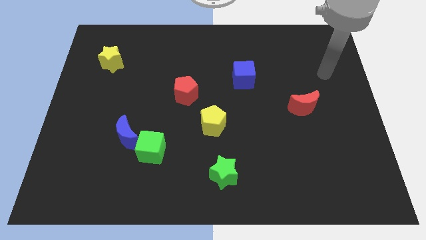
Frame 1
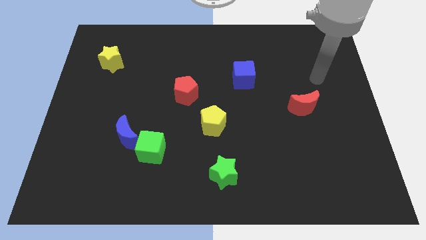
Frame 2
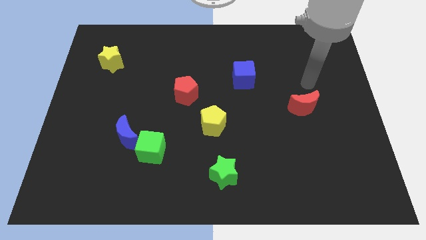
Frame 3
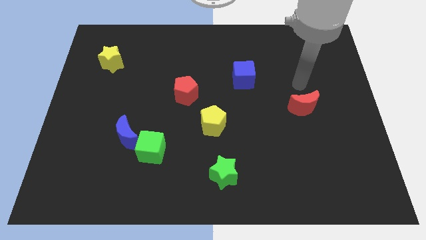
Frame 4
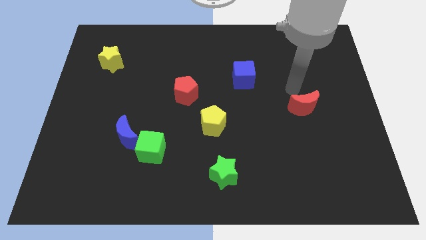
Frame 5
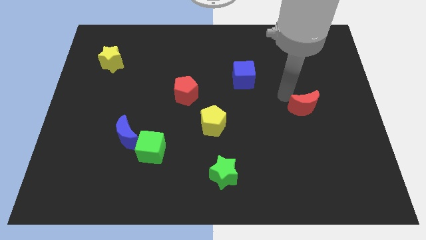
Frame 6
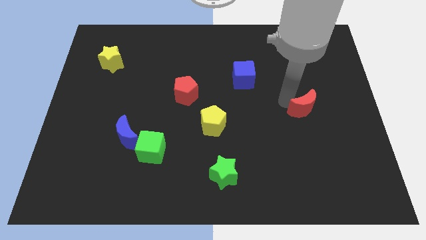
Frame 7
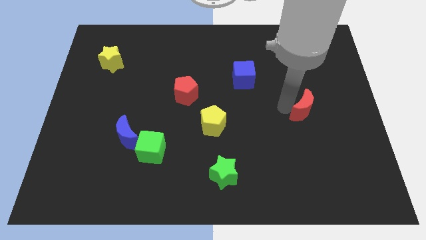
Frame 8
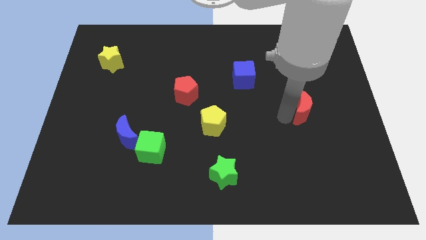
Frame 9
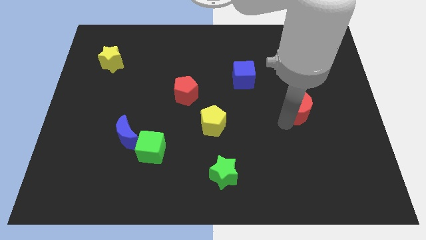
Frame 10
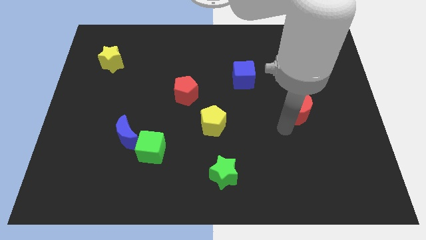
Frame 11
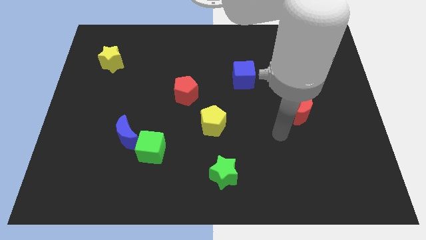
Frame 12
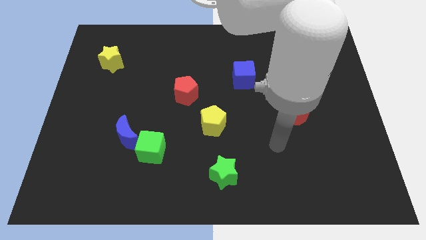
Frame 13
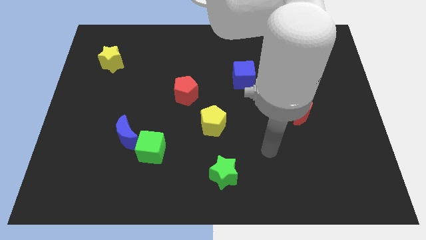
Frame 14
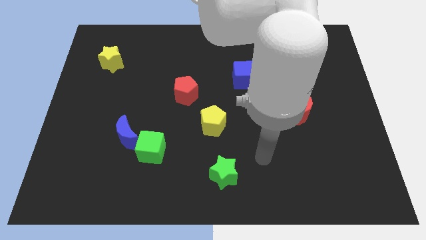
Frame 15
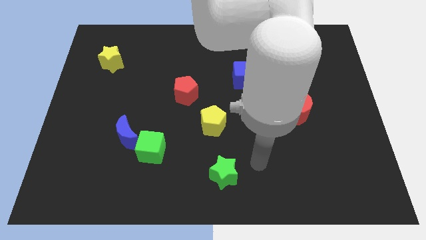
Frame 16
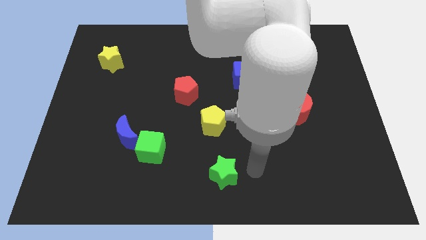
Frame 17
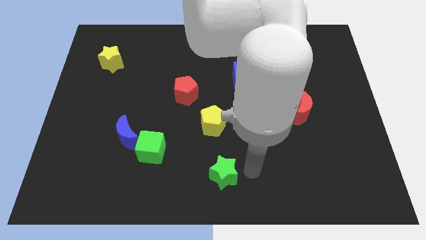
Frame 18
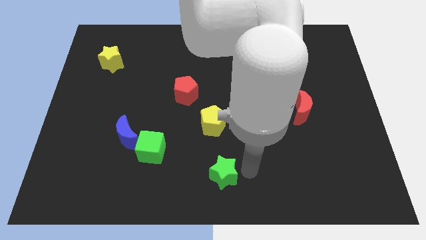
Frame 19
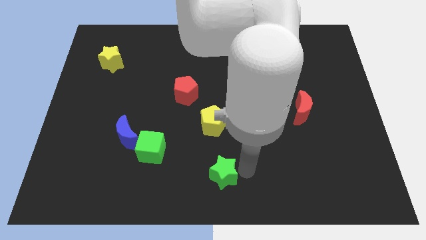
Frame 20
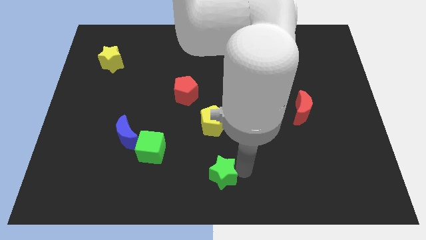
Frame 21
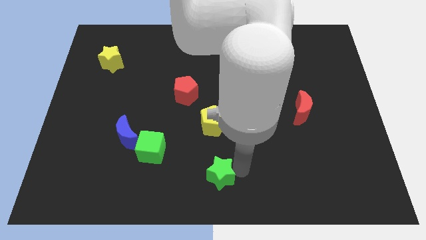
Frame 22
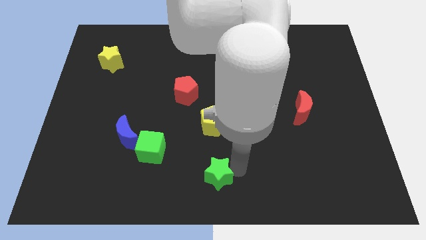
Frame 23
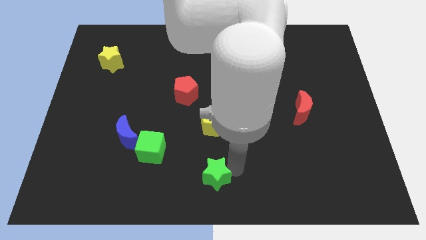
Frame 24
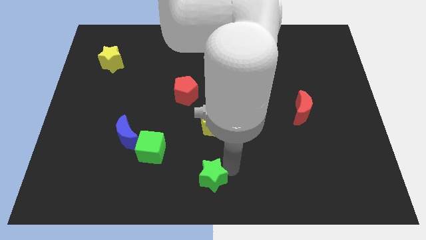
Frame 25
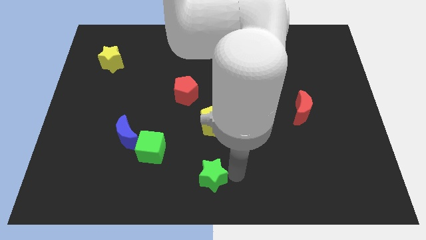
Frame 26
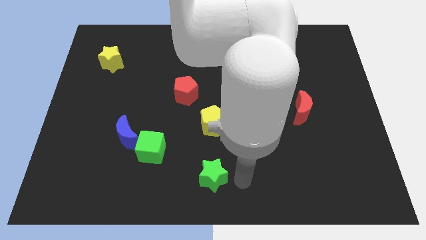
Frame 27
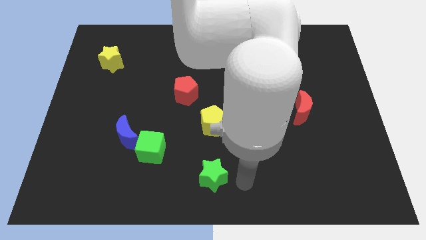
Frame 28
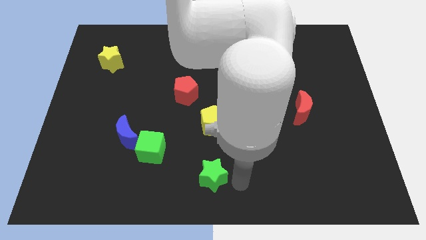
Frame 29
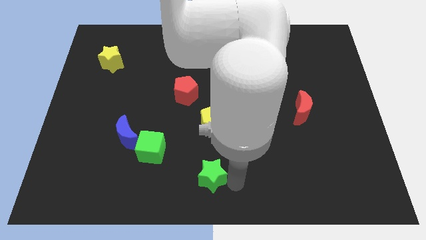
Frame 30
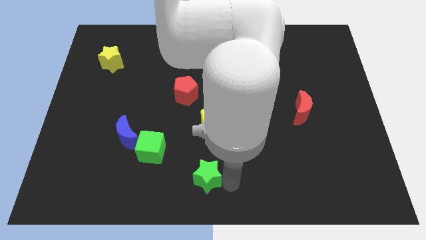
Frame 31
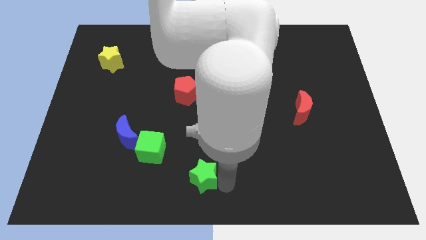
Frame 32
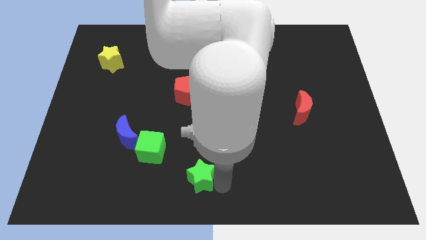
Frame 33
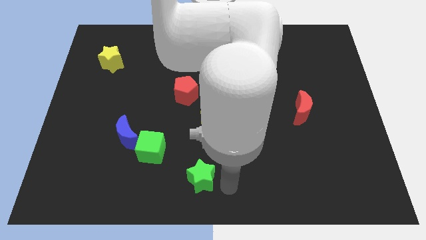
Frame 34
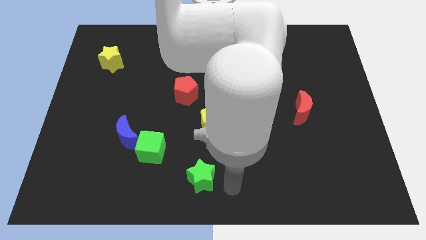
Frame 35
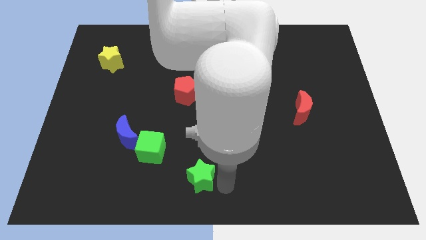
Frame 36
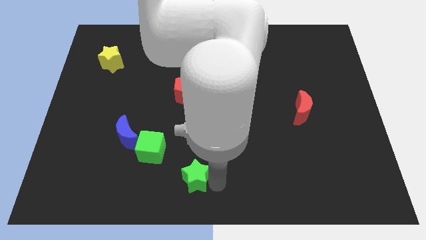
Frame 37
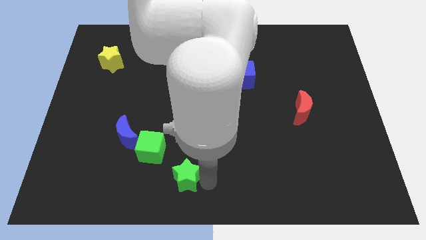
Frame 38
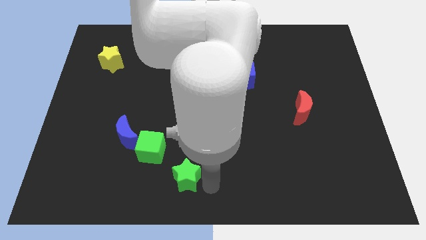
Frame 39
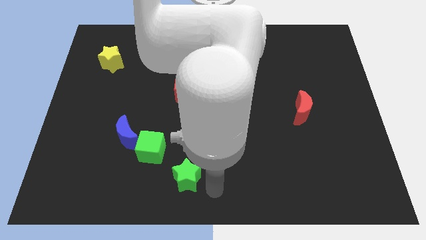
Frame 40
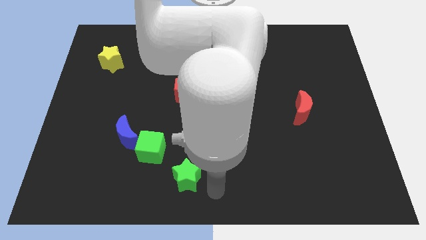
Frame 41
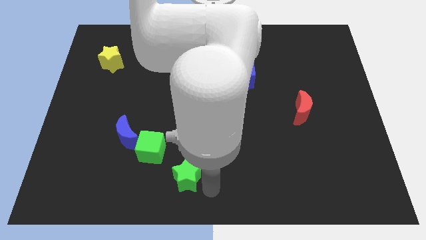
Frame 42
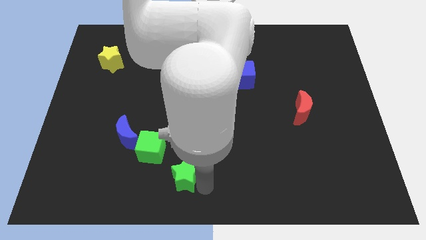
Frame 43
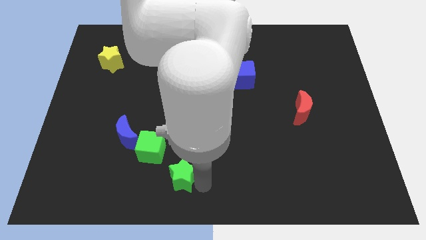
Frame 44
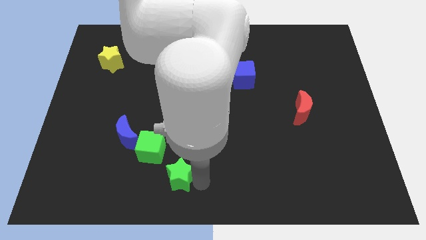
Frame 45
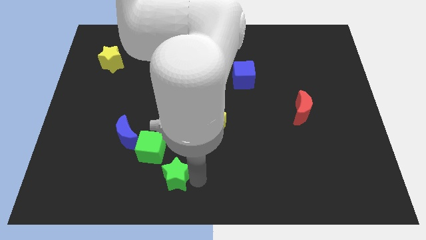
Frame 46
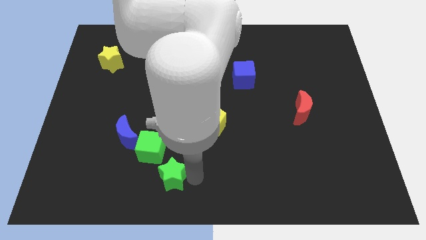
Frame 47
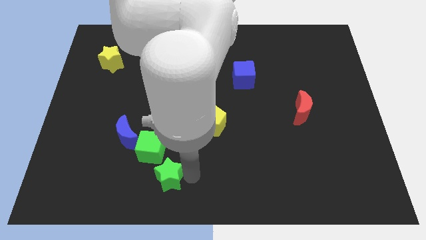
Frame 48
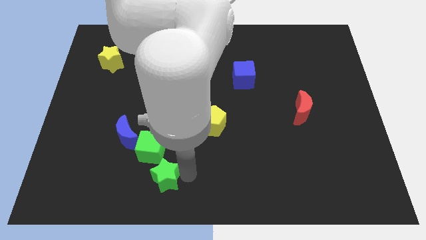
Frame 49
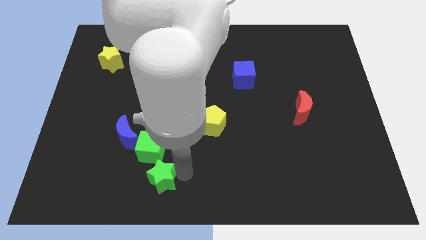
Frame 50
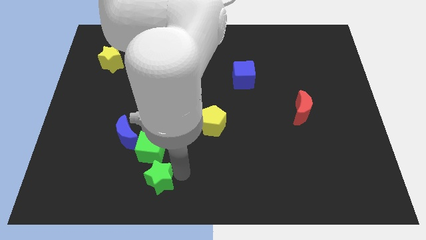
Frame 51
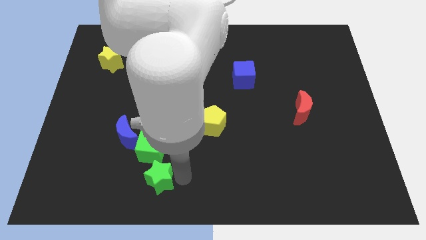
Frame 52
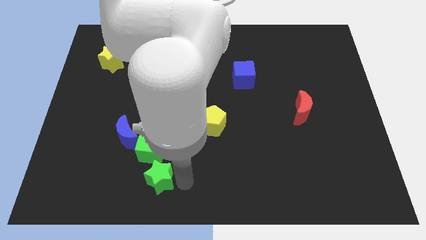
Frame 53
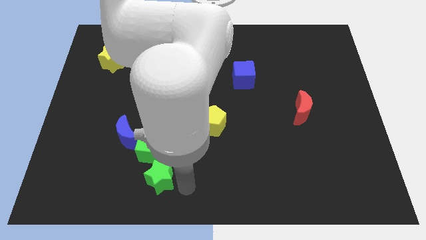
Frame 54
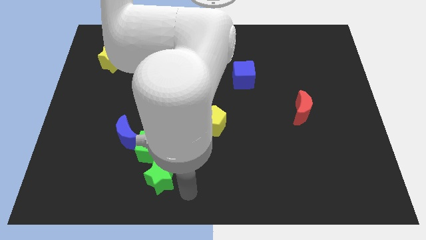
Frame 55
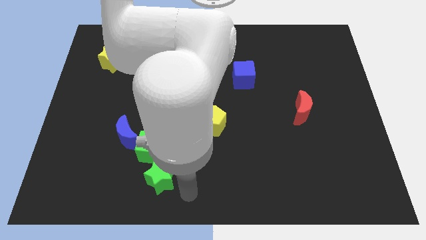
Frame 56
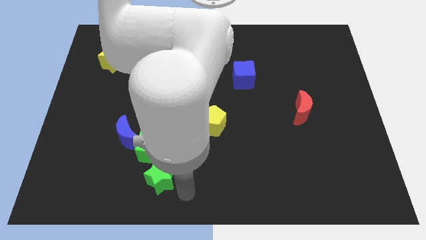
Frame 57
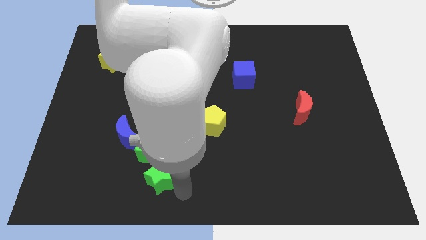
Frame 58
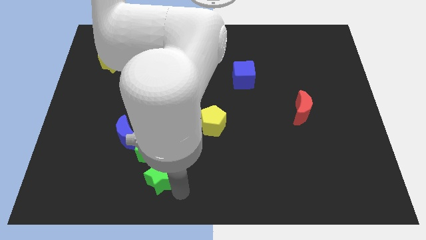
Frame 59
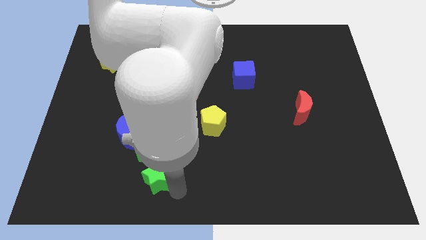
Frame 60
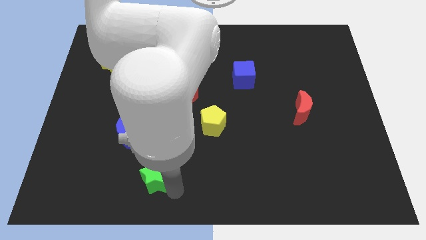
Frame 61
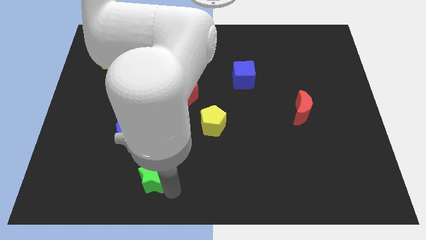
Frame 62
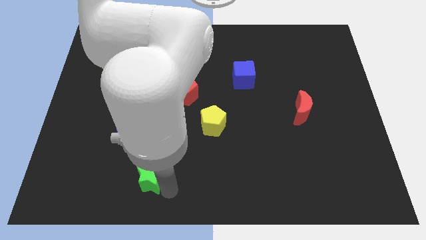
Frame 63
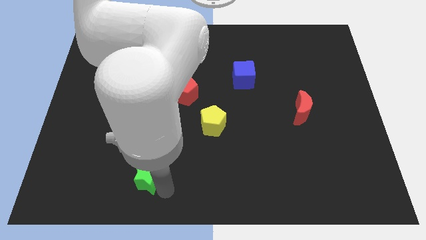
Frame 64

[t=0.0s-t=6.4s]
put the green star diagonally down and to the left of the green cube
